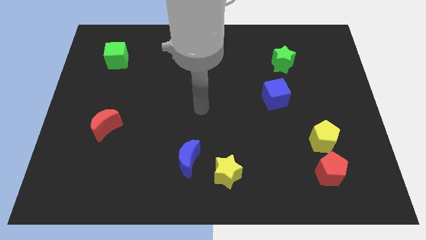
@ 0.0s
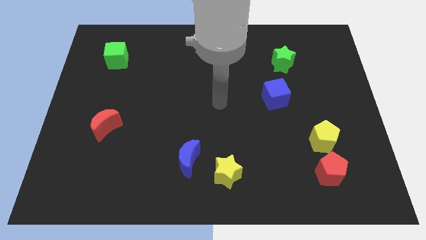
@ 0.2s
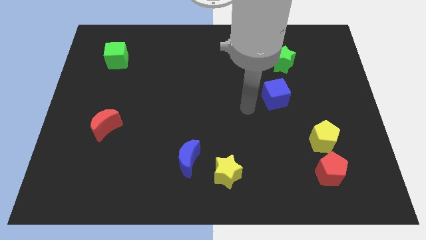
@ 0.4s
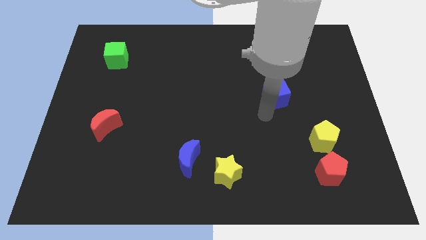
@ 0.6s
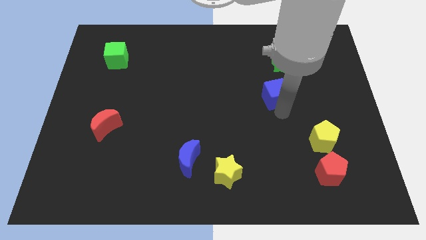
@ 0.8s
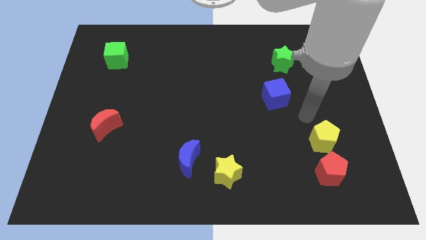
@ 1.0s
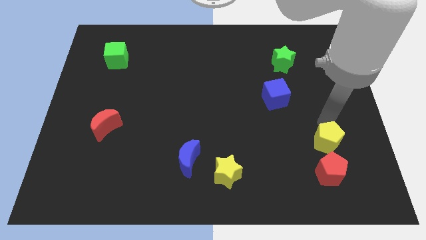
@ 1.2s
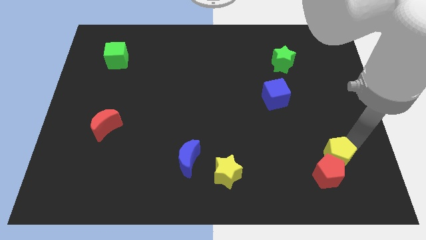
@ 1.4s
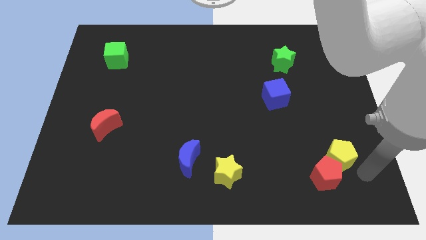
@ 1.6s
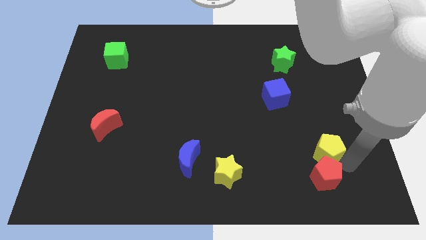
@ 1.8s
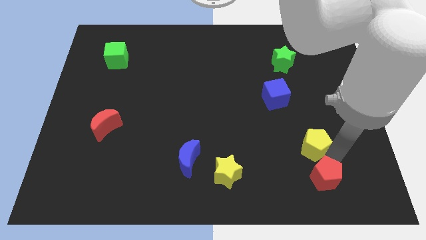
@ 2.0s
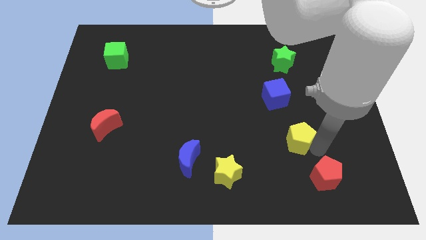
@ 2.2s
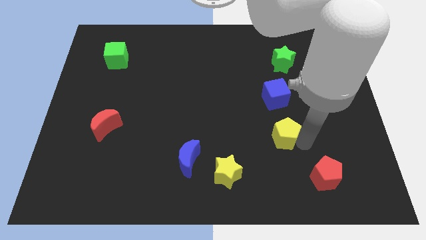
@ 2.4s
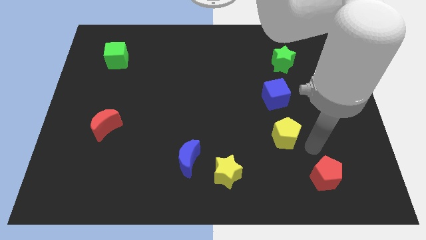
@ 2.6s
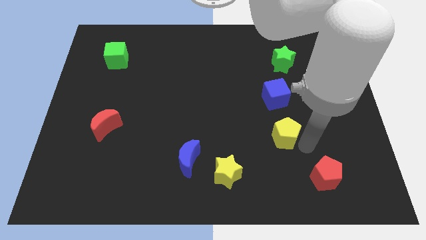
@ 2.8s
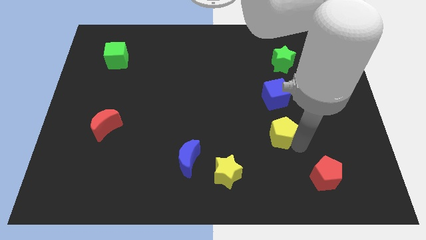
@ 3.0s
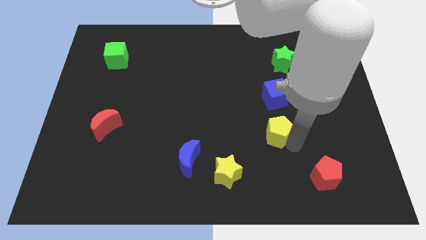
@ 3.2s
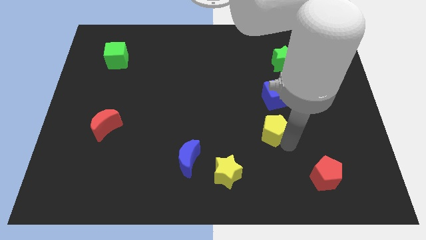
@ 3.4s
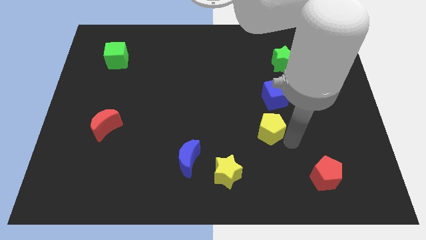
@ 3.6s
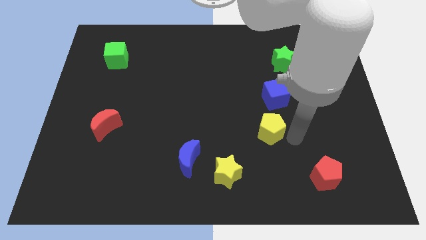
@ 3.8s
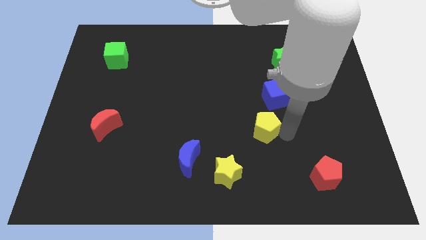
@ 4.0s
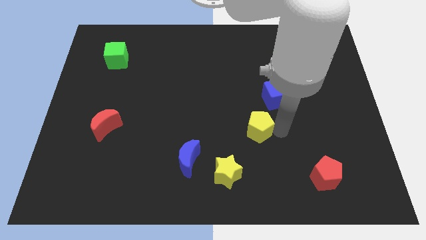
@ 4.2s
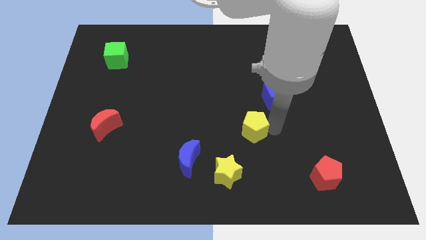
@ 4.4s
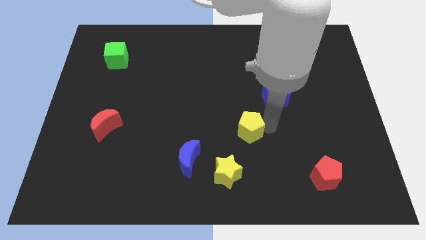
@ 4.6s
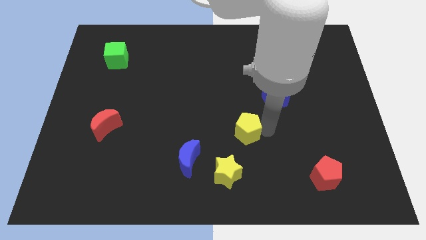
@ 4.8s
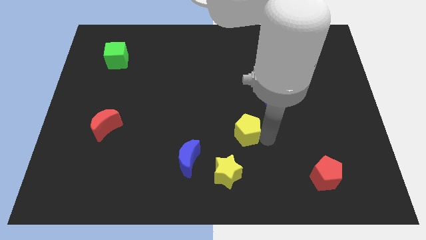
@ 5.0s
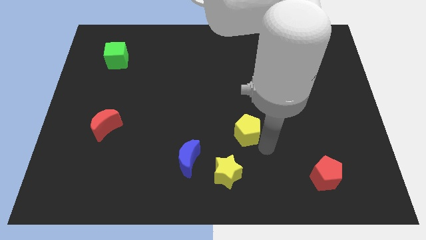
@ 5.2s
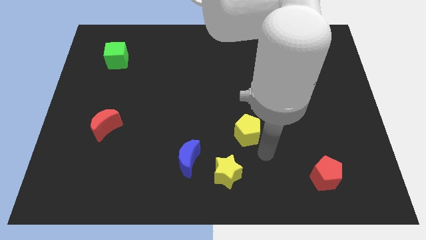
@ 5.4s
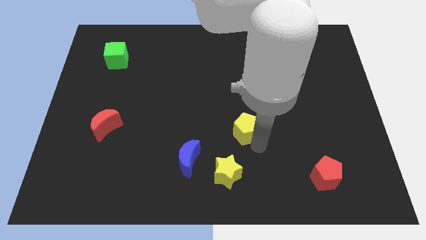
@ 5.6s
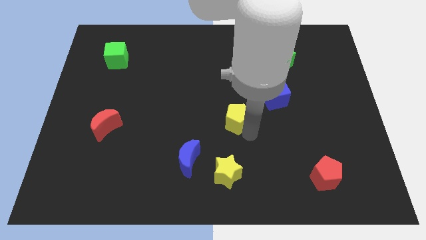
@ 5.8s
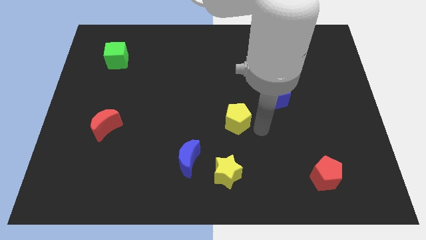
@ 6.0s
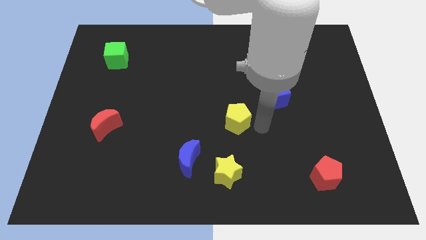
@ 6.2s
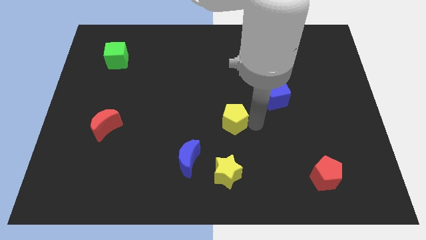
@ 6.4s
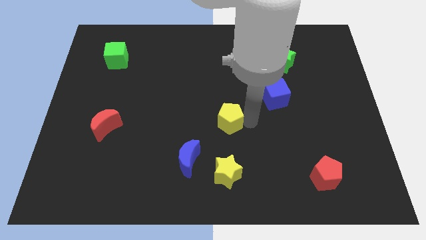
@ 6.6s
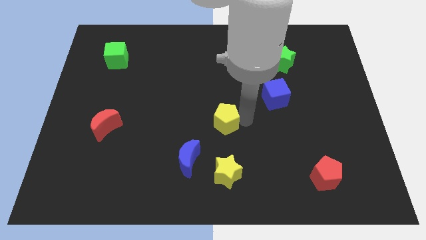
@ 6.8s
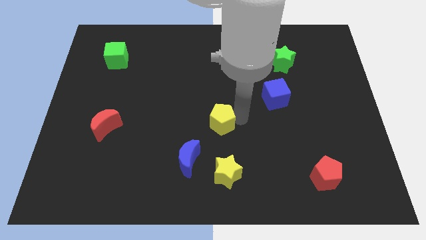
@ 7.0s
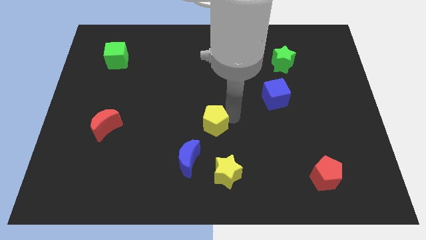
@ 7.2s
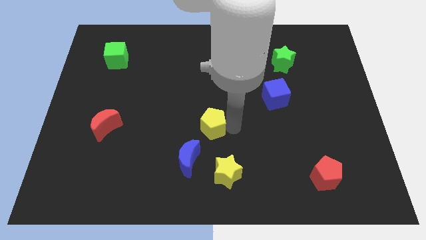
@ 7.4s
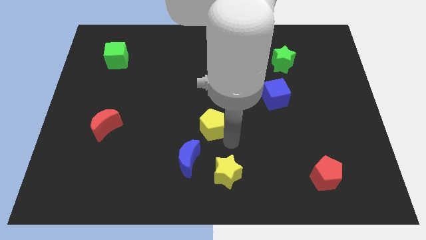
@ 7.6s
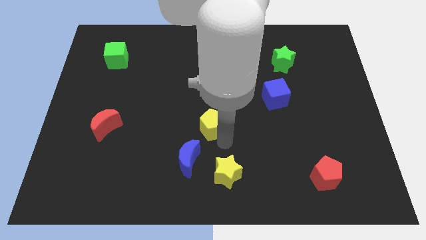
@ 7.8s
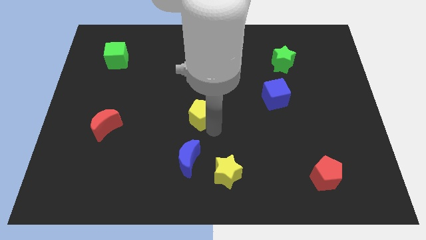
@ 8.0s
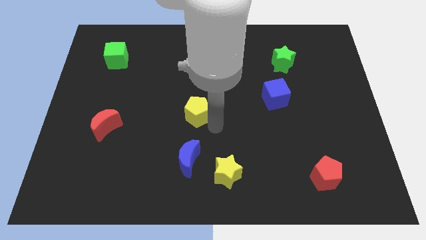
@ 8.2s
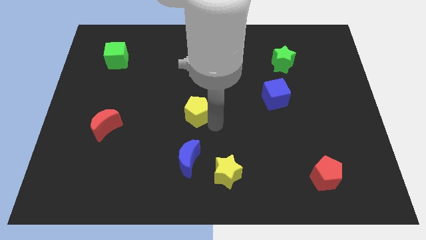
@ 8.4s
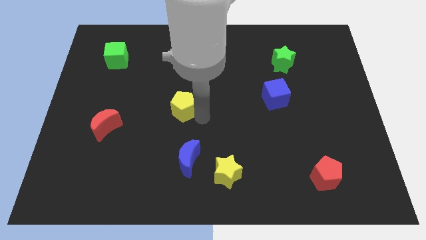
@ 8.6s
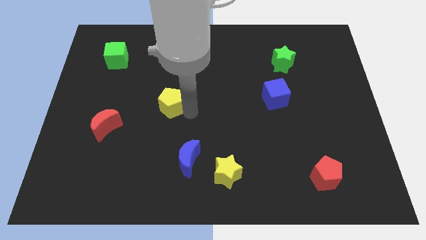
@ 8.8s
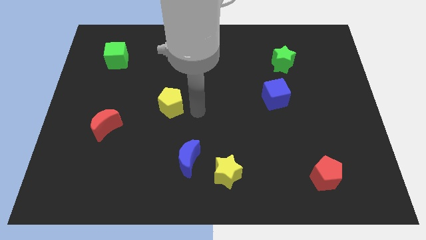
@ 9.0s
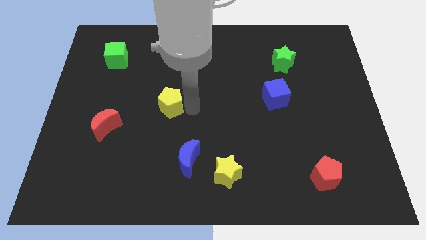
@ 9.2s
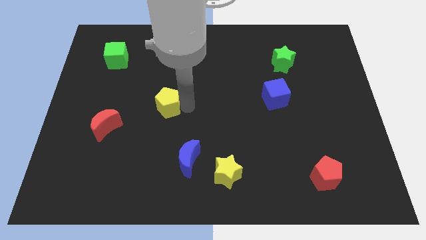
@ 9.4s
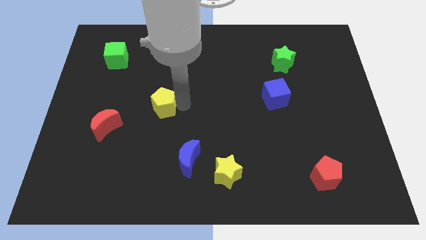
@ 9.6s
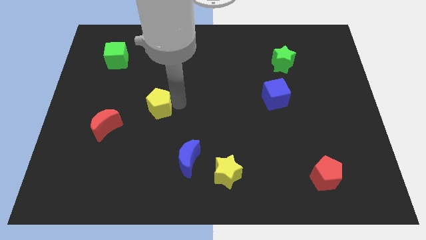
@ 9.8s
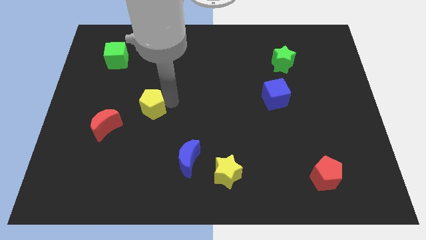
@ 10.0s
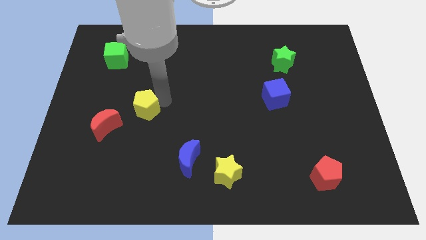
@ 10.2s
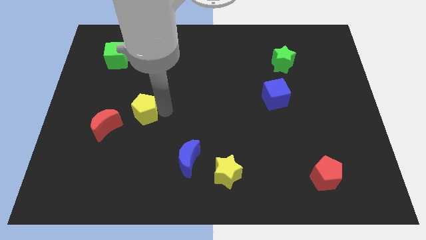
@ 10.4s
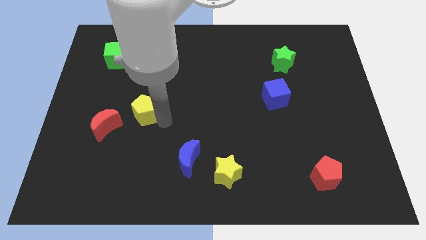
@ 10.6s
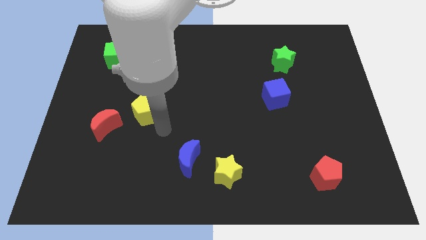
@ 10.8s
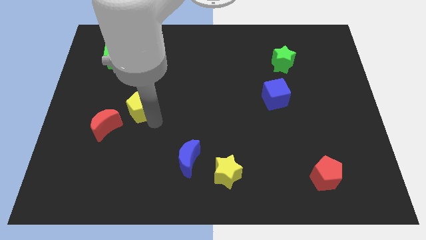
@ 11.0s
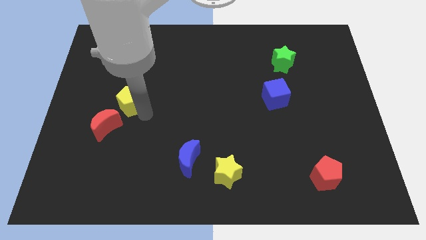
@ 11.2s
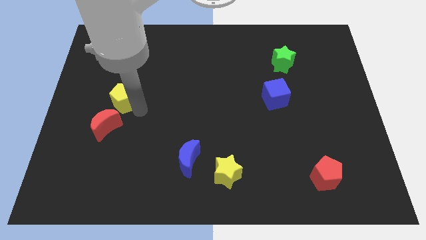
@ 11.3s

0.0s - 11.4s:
push the yellow pentagon to the bottom side of the green cube

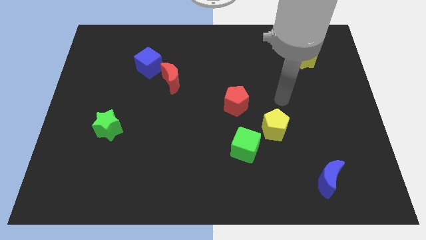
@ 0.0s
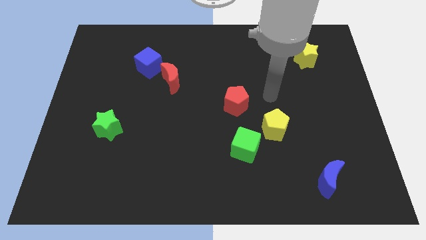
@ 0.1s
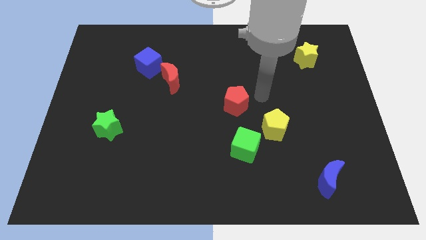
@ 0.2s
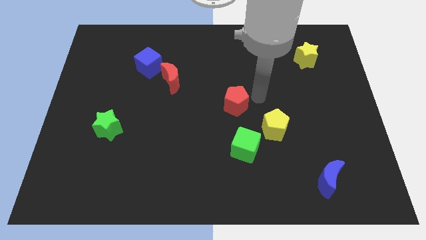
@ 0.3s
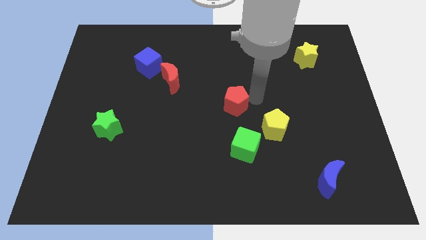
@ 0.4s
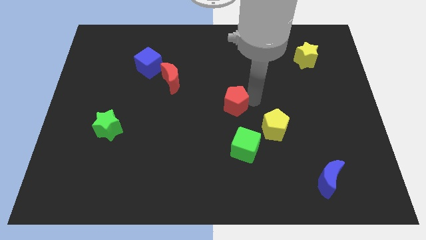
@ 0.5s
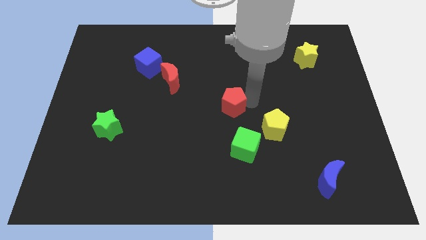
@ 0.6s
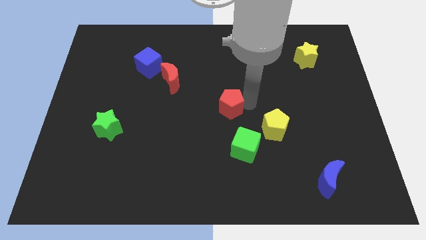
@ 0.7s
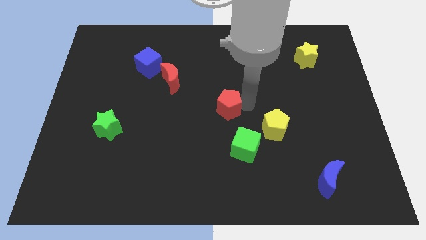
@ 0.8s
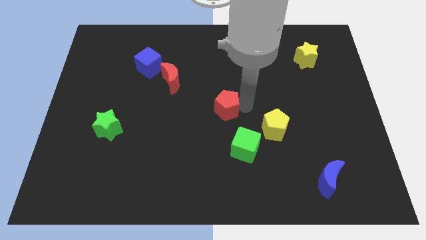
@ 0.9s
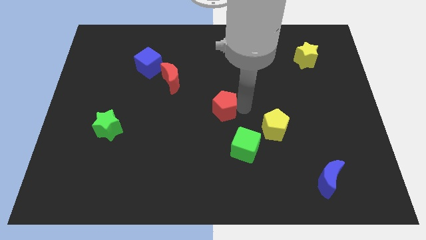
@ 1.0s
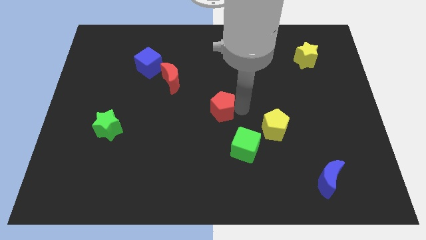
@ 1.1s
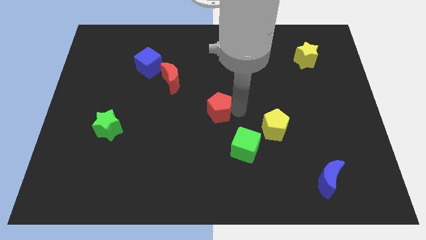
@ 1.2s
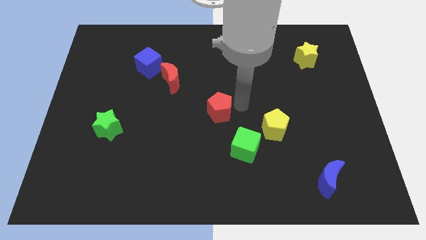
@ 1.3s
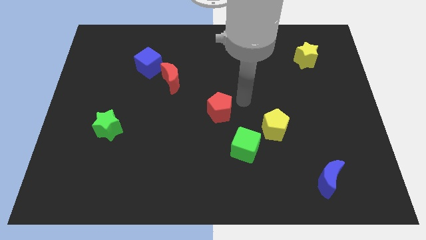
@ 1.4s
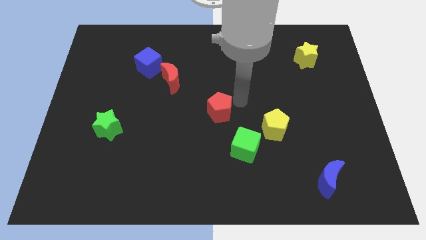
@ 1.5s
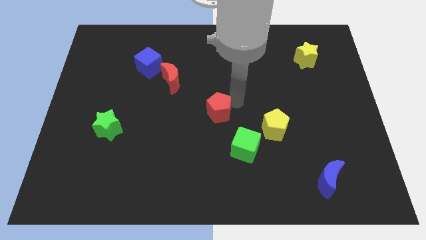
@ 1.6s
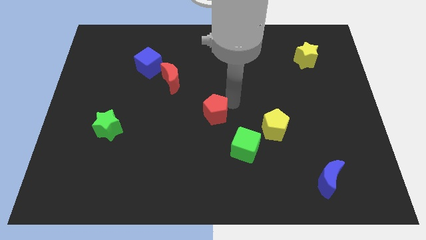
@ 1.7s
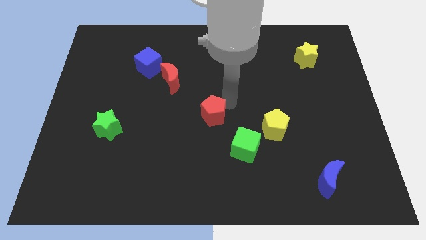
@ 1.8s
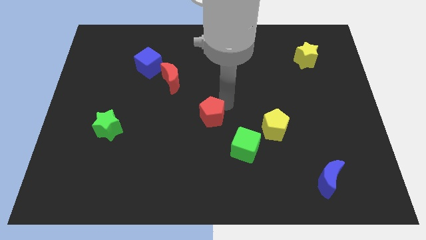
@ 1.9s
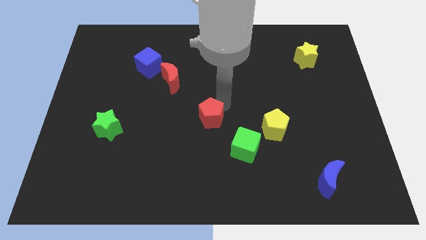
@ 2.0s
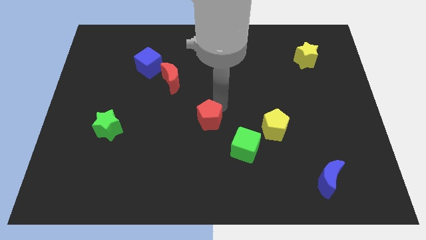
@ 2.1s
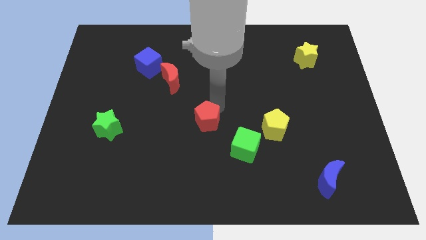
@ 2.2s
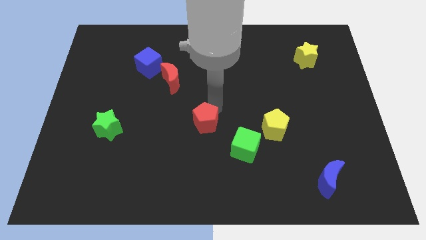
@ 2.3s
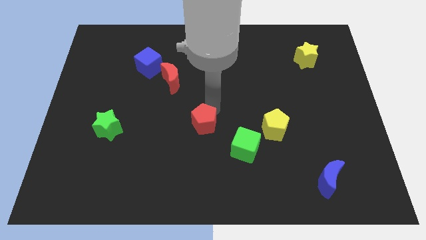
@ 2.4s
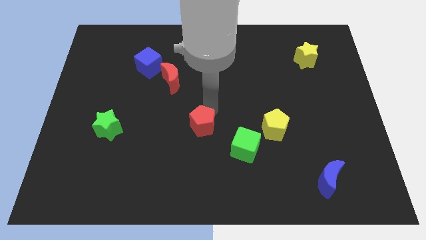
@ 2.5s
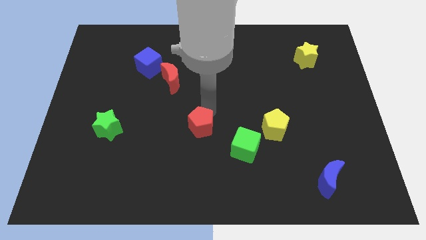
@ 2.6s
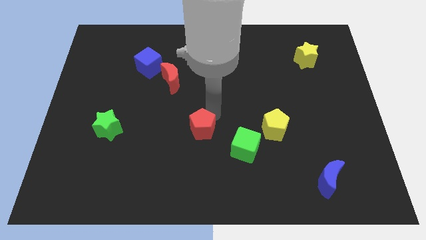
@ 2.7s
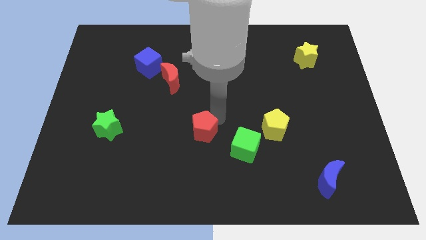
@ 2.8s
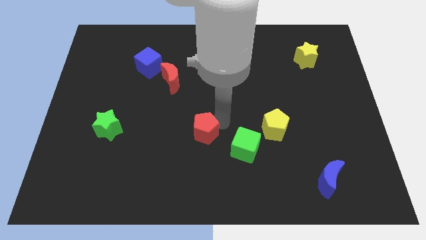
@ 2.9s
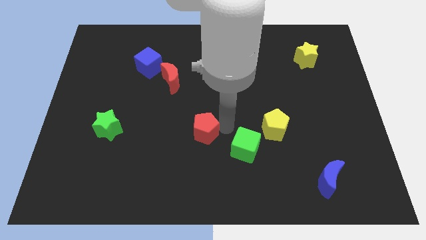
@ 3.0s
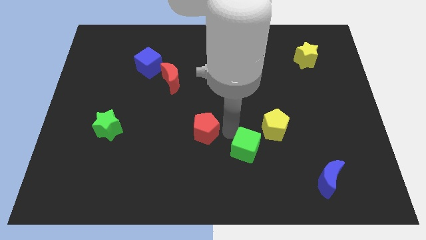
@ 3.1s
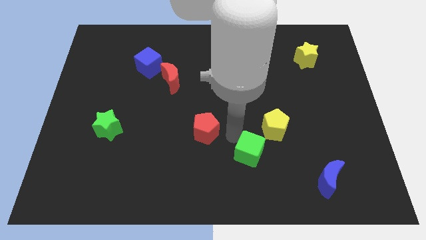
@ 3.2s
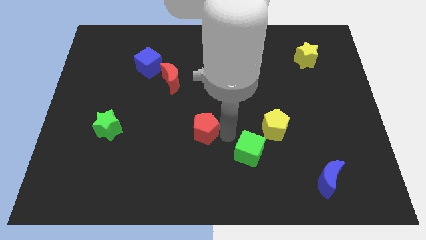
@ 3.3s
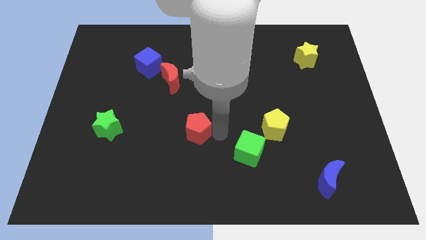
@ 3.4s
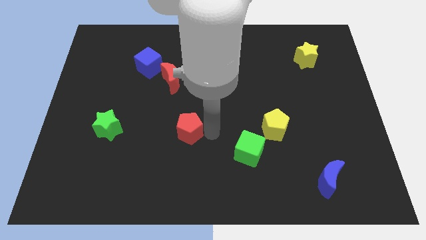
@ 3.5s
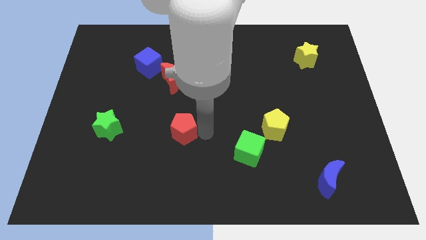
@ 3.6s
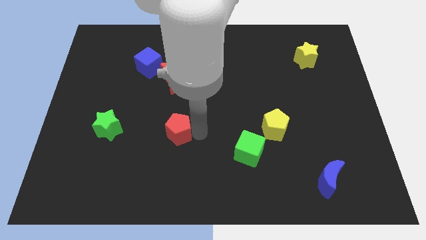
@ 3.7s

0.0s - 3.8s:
put the red pentagon right of the green star
